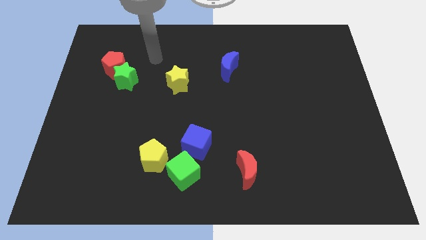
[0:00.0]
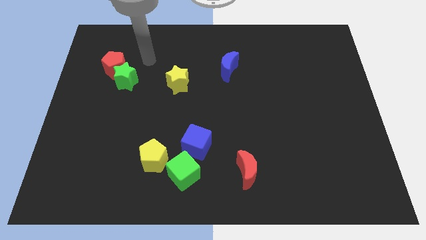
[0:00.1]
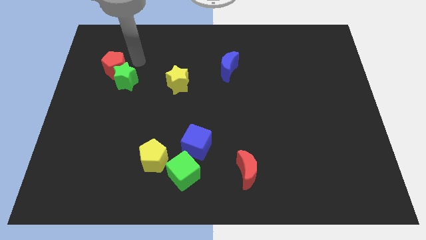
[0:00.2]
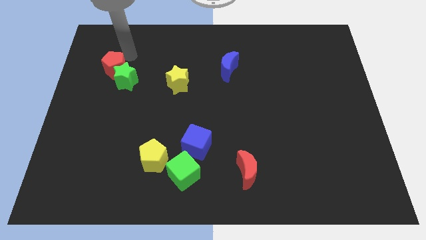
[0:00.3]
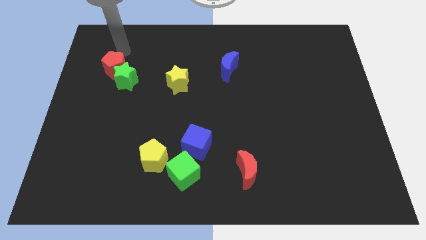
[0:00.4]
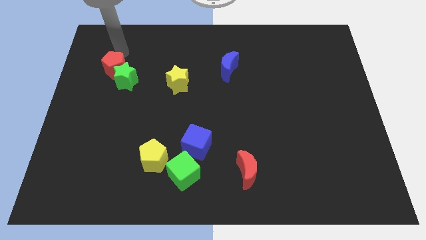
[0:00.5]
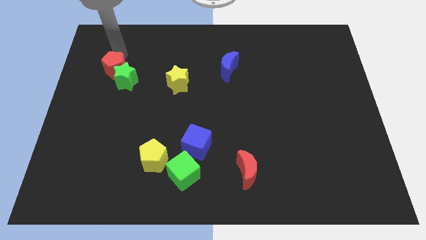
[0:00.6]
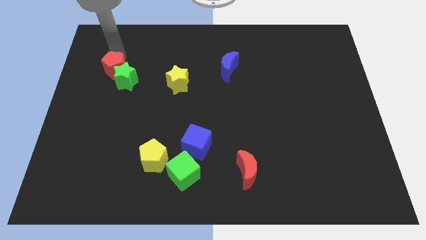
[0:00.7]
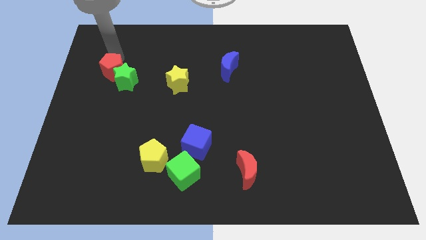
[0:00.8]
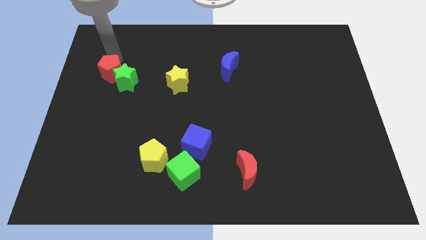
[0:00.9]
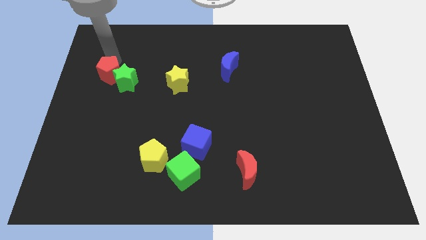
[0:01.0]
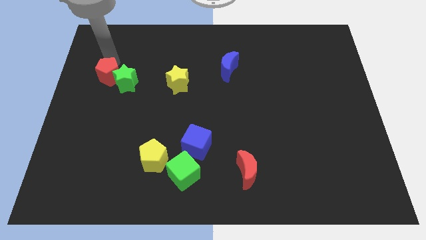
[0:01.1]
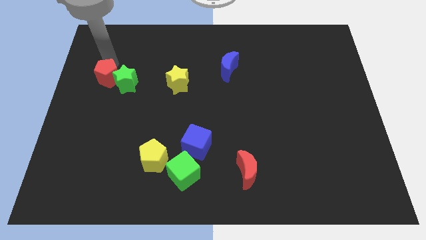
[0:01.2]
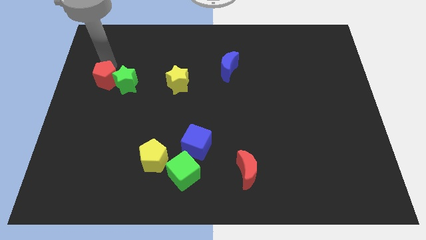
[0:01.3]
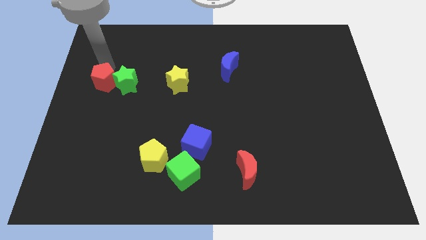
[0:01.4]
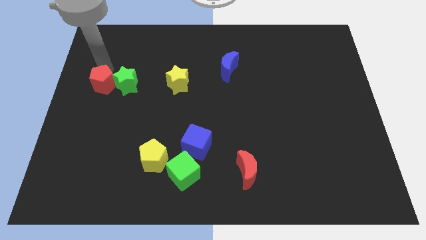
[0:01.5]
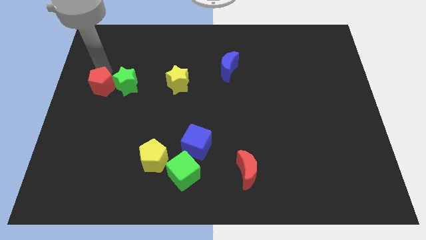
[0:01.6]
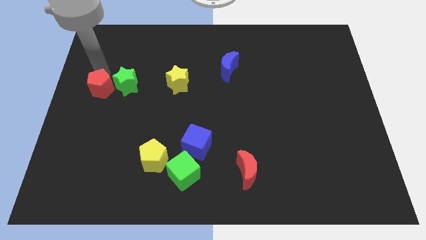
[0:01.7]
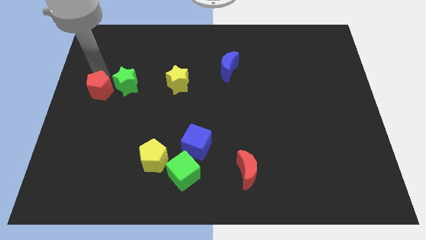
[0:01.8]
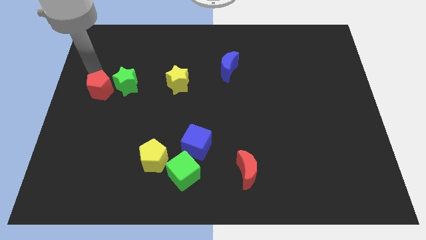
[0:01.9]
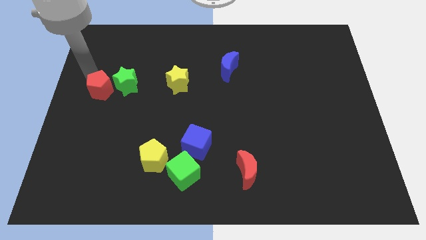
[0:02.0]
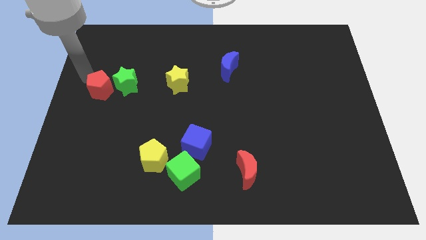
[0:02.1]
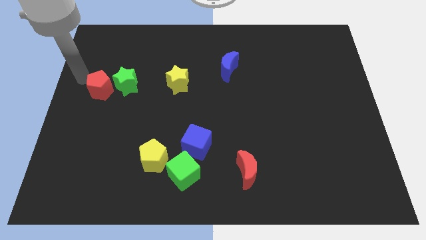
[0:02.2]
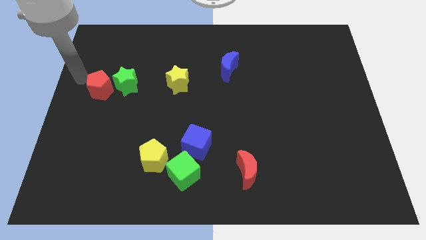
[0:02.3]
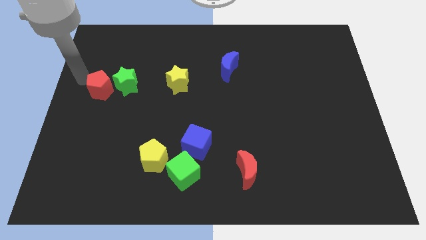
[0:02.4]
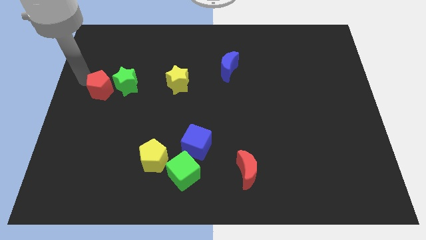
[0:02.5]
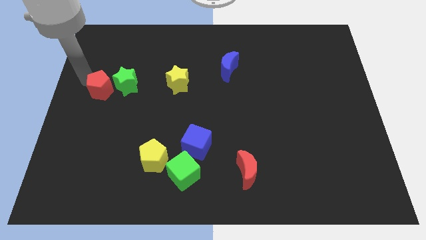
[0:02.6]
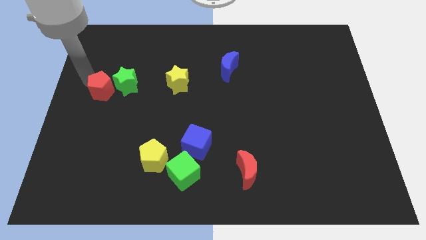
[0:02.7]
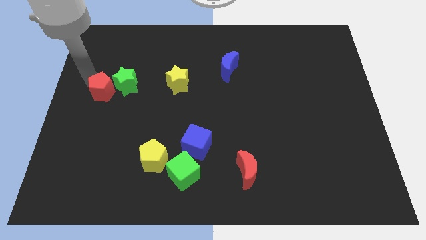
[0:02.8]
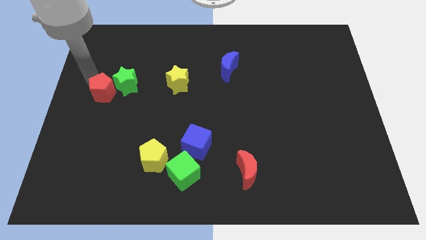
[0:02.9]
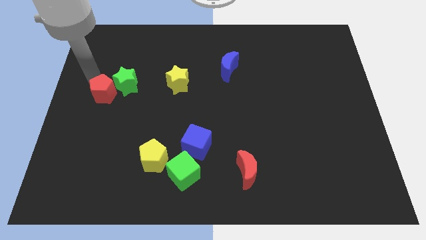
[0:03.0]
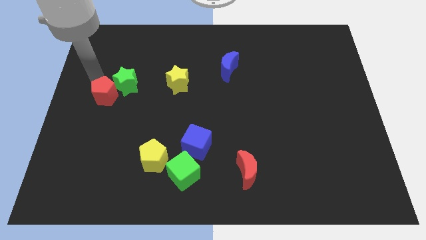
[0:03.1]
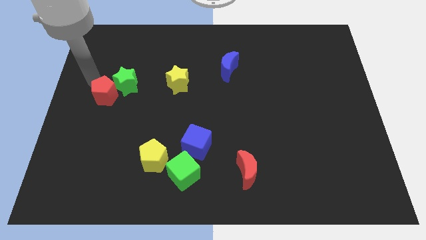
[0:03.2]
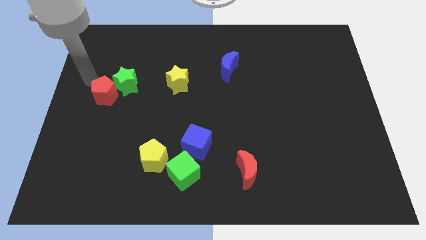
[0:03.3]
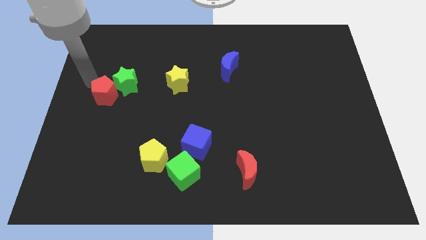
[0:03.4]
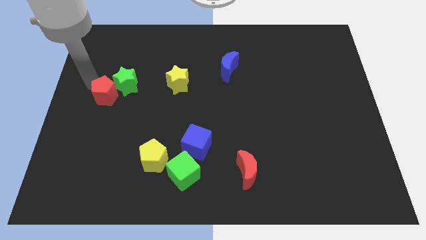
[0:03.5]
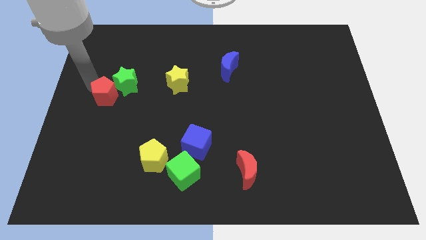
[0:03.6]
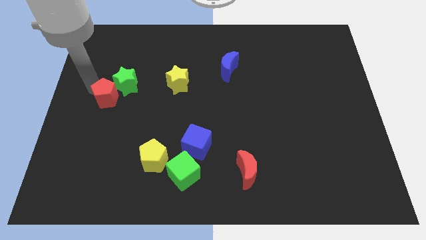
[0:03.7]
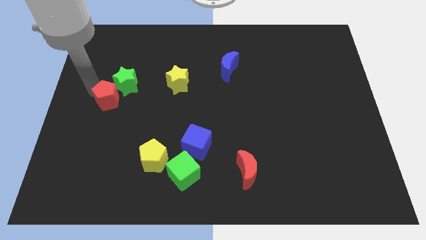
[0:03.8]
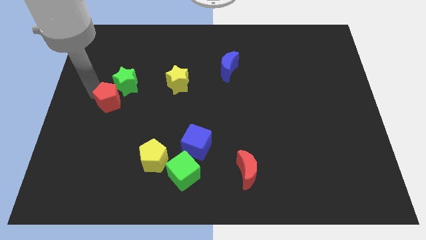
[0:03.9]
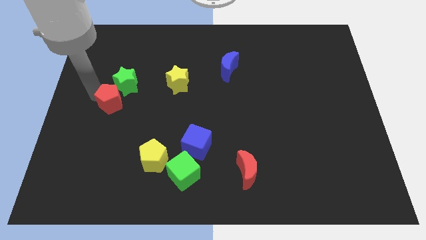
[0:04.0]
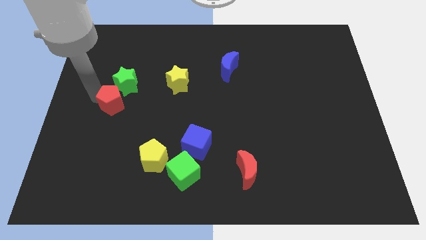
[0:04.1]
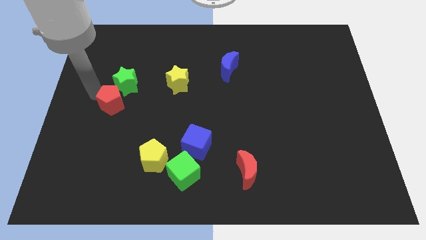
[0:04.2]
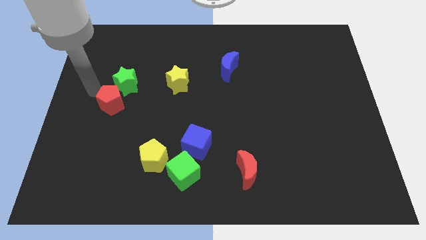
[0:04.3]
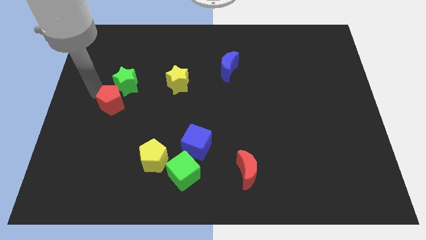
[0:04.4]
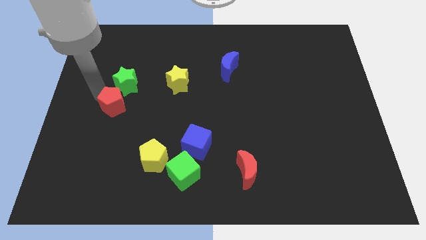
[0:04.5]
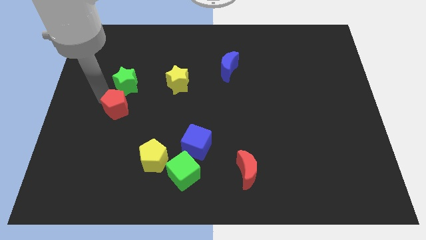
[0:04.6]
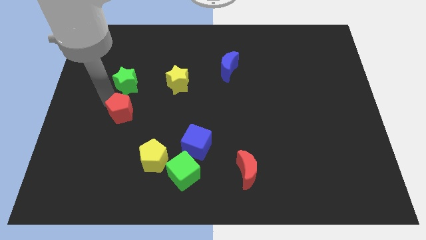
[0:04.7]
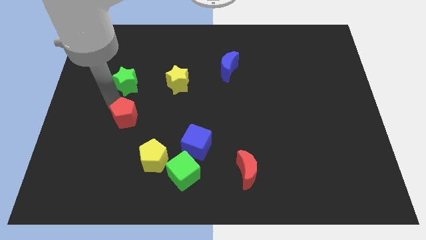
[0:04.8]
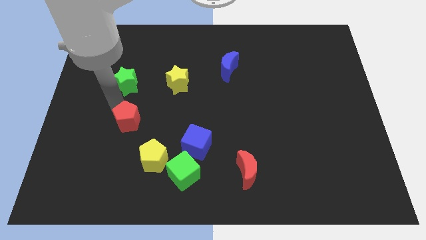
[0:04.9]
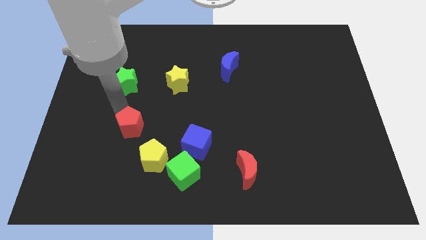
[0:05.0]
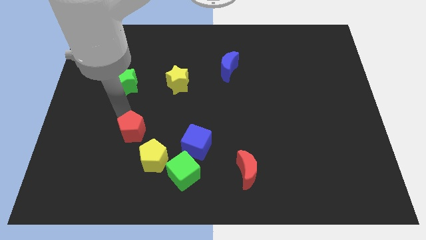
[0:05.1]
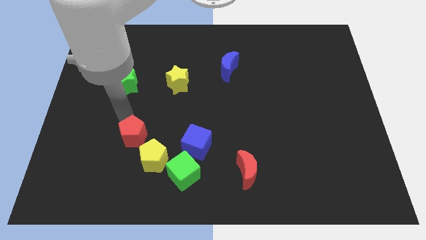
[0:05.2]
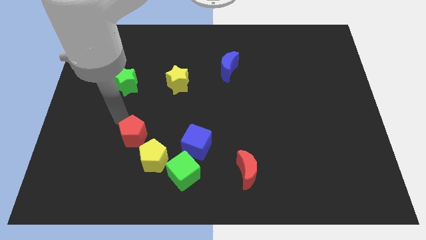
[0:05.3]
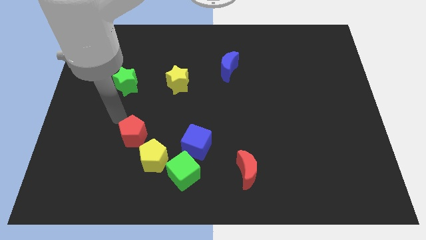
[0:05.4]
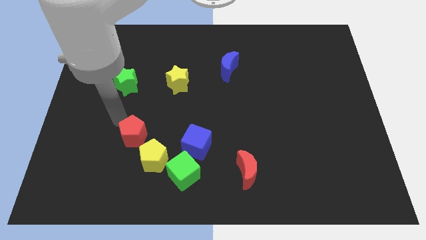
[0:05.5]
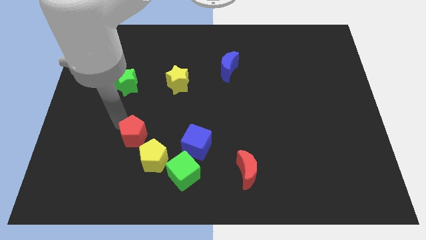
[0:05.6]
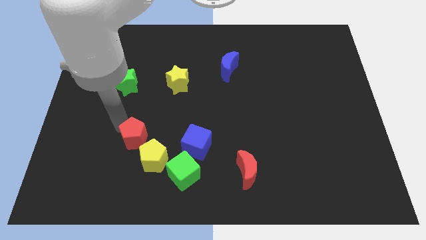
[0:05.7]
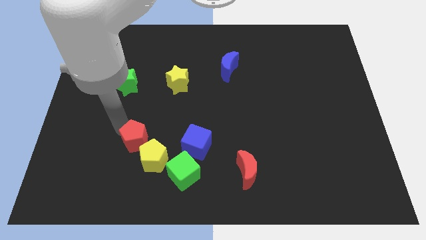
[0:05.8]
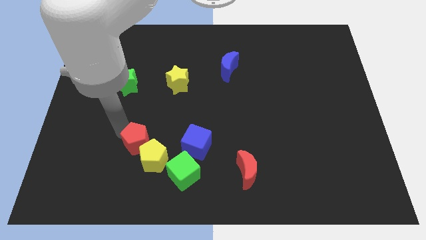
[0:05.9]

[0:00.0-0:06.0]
put the red pentagon towards the yellow pentagon
